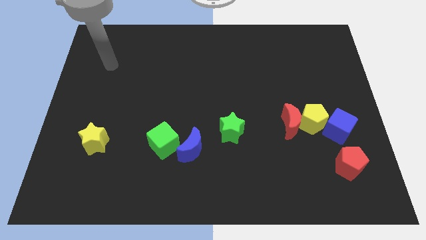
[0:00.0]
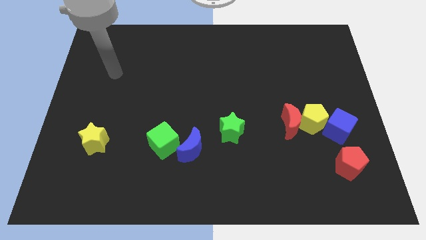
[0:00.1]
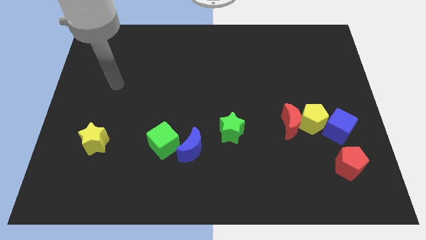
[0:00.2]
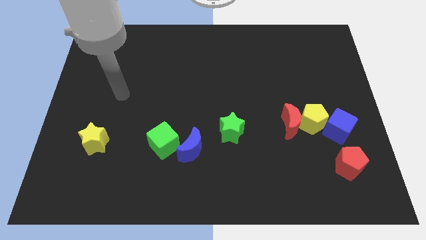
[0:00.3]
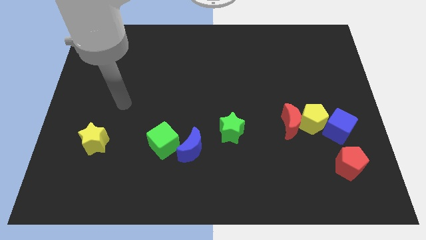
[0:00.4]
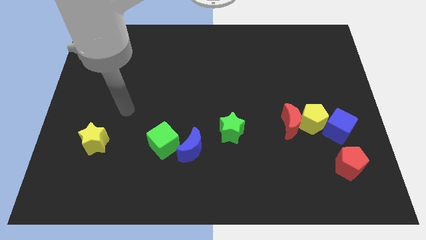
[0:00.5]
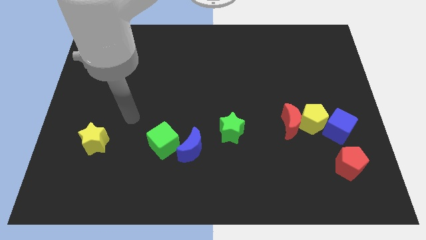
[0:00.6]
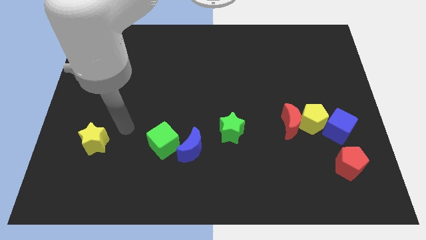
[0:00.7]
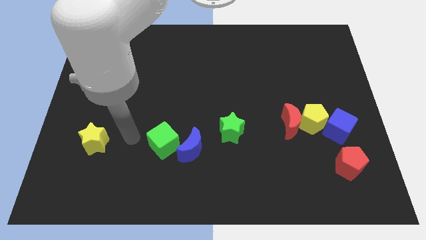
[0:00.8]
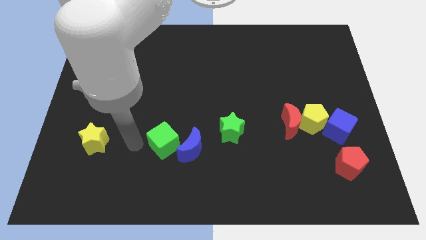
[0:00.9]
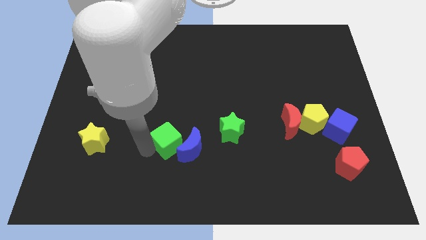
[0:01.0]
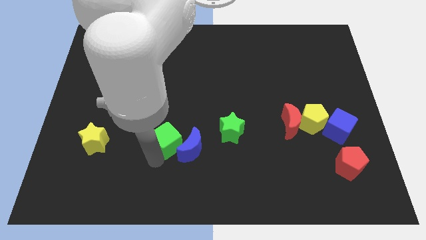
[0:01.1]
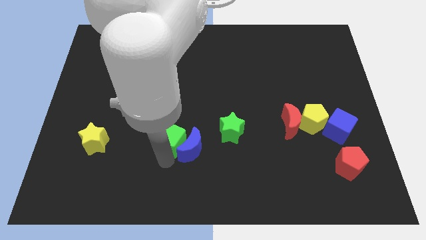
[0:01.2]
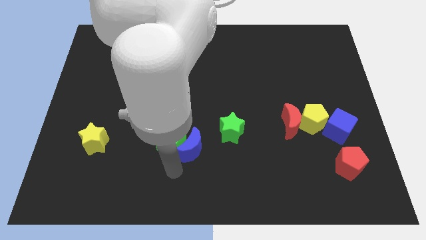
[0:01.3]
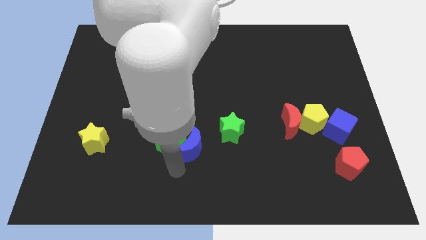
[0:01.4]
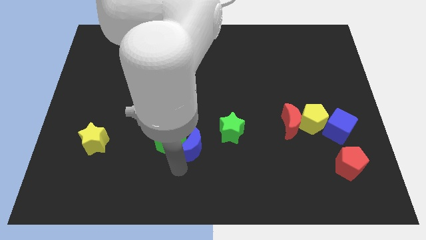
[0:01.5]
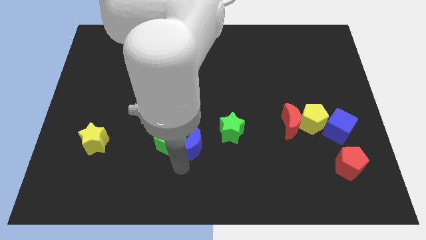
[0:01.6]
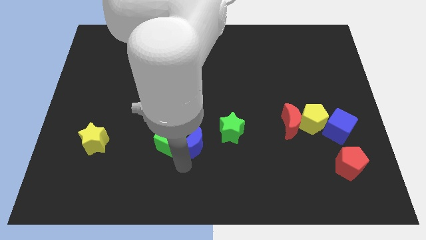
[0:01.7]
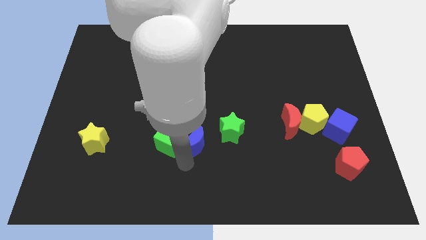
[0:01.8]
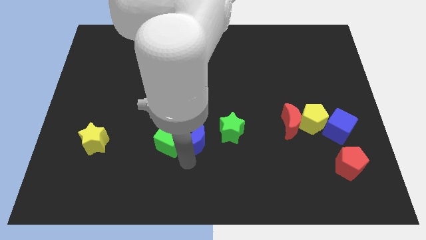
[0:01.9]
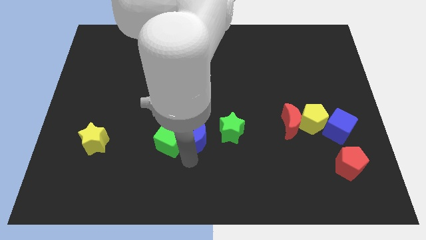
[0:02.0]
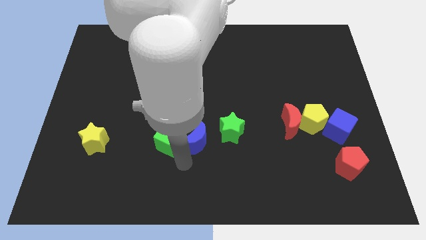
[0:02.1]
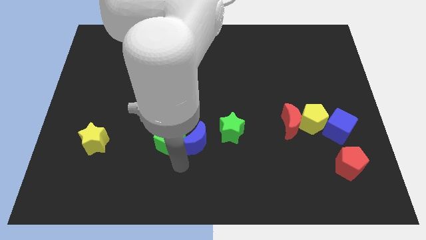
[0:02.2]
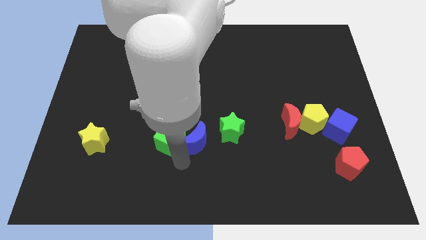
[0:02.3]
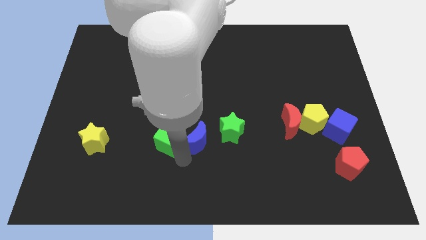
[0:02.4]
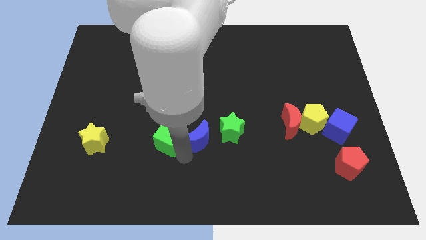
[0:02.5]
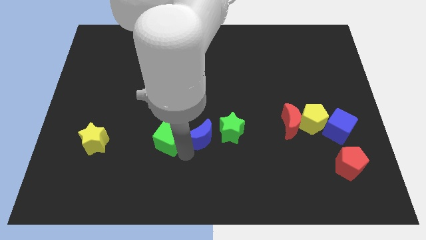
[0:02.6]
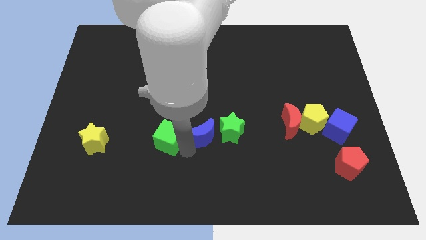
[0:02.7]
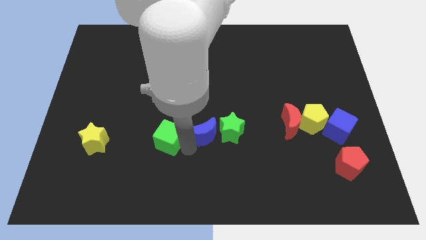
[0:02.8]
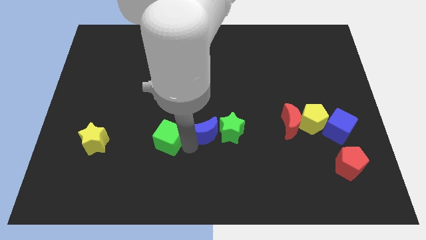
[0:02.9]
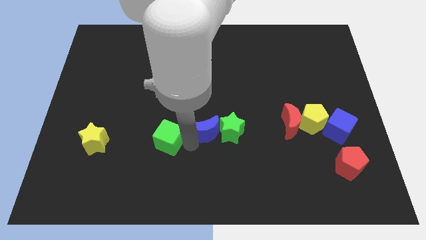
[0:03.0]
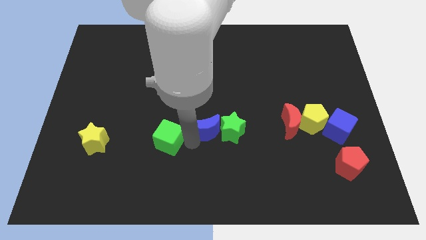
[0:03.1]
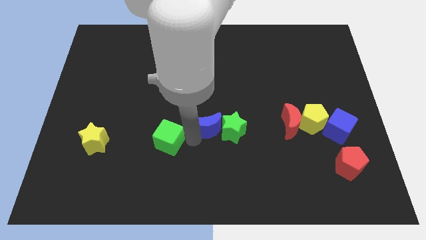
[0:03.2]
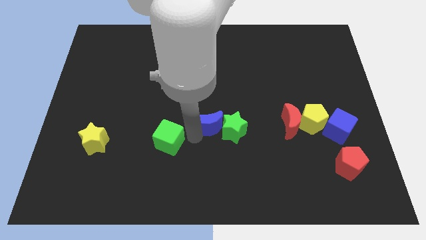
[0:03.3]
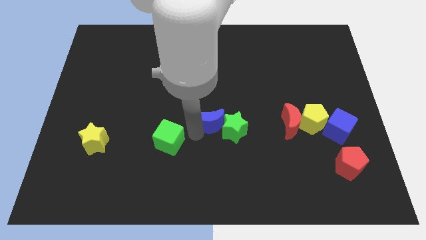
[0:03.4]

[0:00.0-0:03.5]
slide the blue moon a little bit upwards and right diagonally

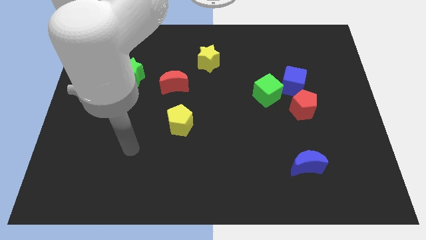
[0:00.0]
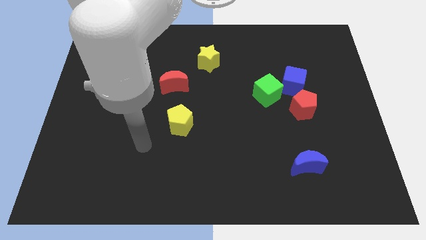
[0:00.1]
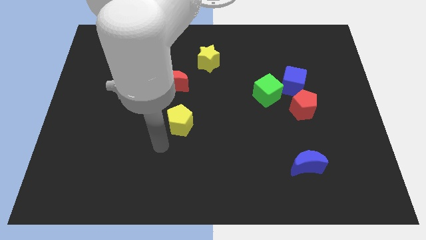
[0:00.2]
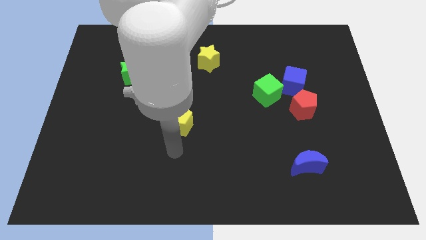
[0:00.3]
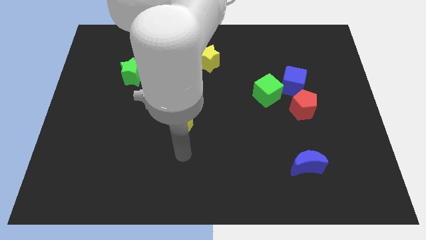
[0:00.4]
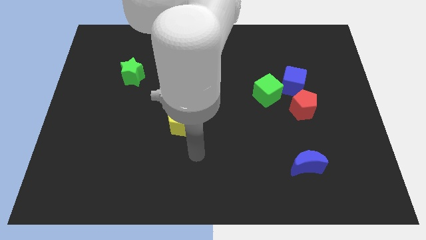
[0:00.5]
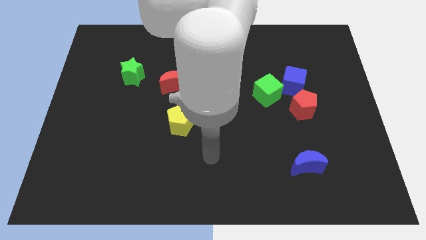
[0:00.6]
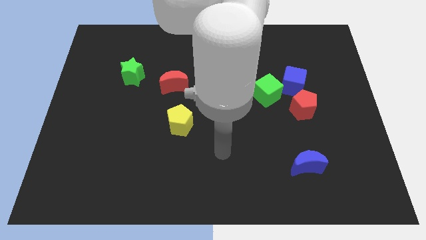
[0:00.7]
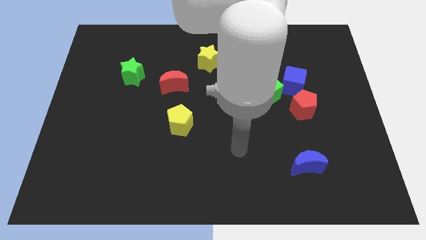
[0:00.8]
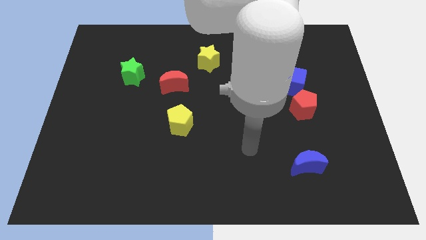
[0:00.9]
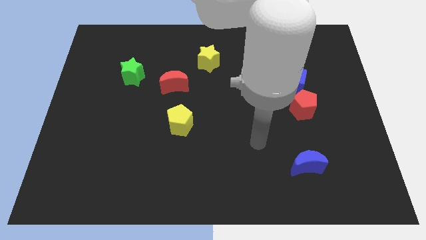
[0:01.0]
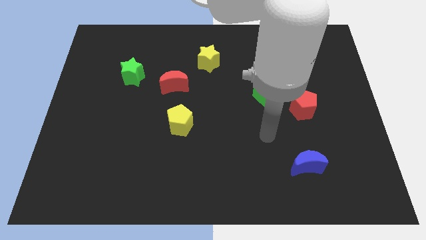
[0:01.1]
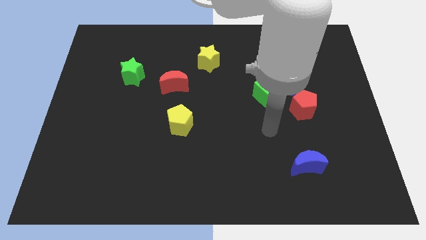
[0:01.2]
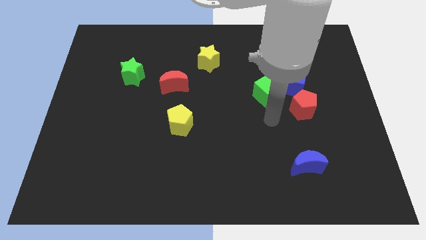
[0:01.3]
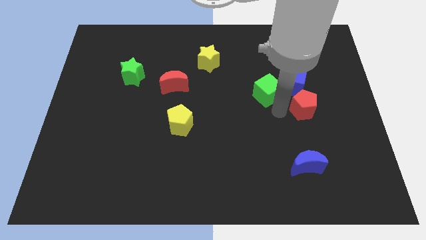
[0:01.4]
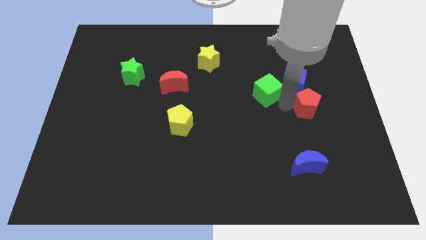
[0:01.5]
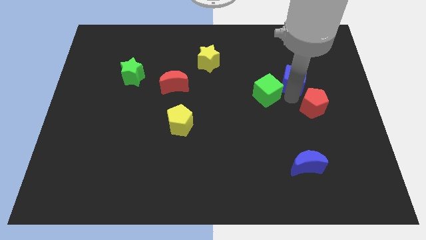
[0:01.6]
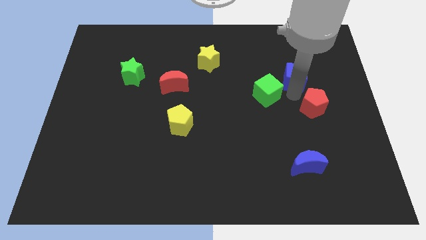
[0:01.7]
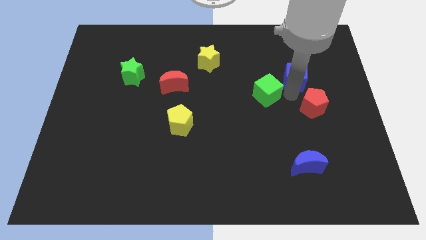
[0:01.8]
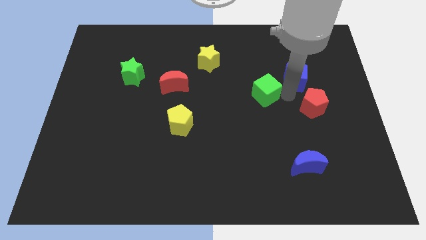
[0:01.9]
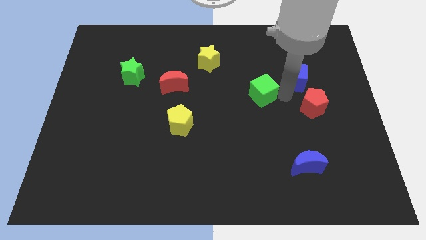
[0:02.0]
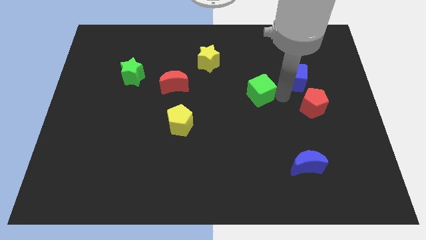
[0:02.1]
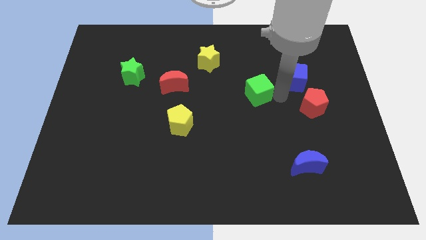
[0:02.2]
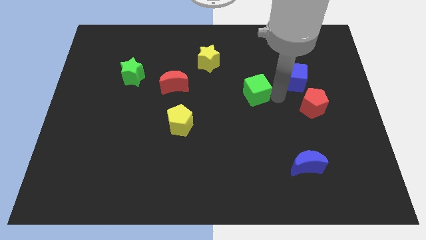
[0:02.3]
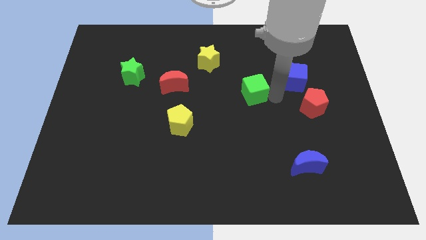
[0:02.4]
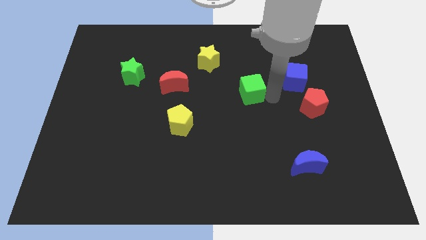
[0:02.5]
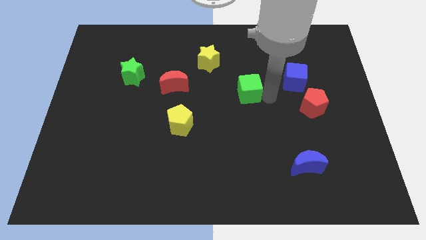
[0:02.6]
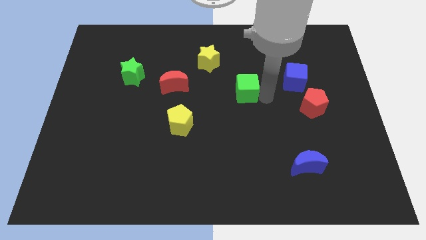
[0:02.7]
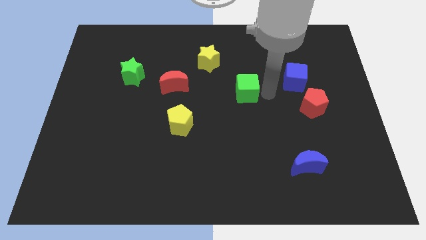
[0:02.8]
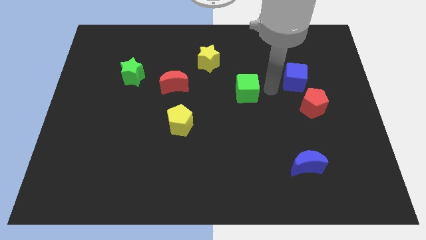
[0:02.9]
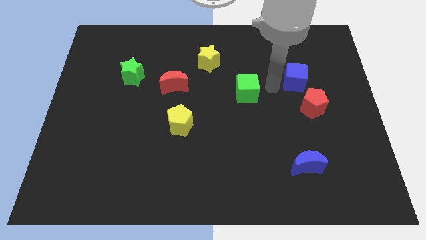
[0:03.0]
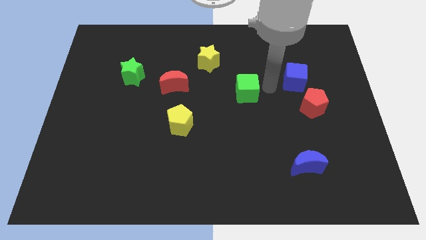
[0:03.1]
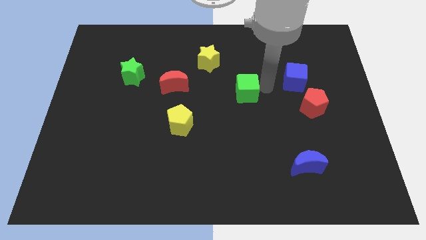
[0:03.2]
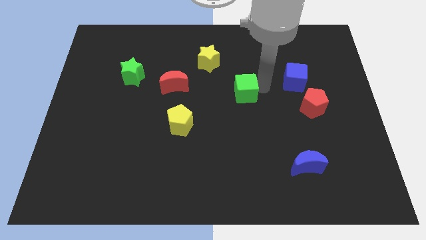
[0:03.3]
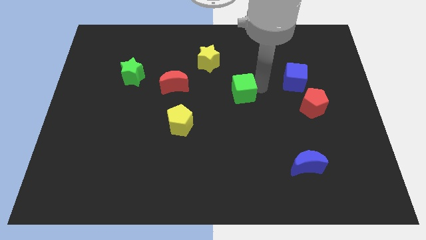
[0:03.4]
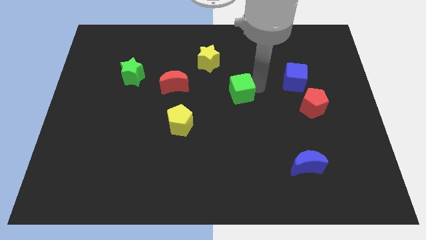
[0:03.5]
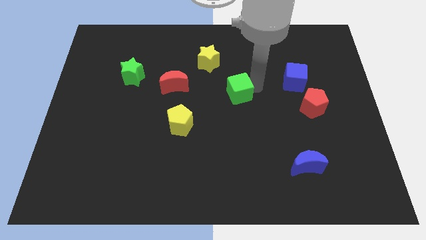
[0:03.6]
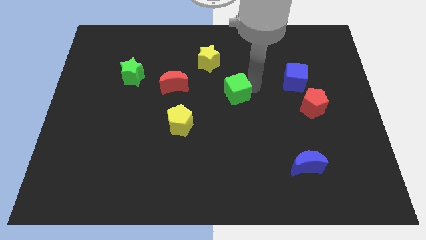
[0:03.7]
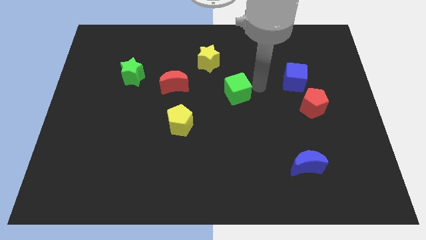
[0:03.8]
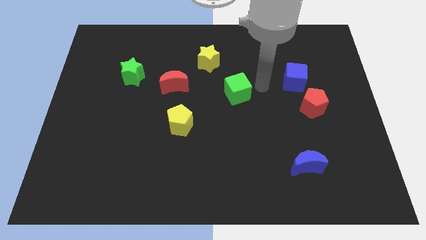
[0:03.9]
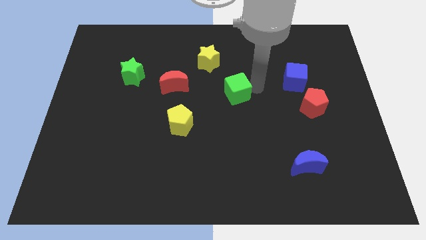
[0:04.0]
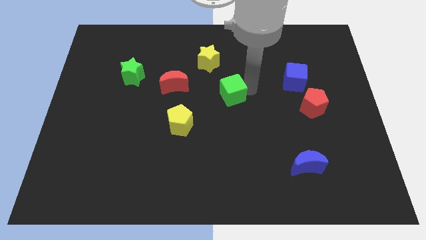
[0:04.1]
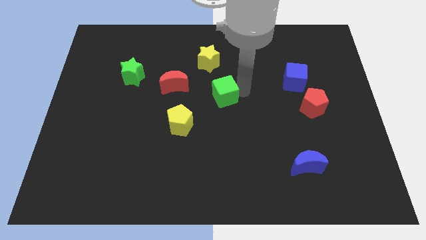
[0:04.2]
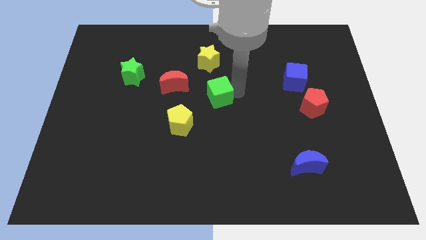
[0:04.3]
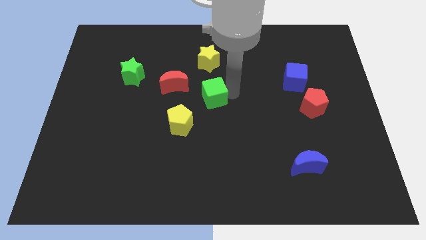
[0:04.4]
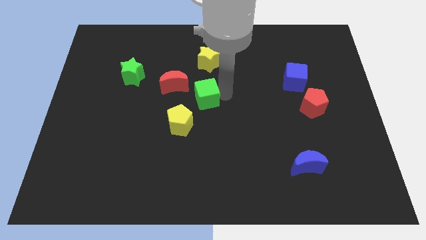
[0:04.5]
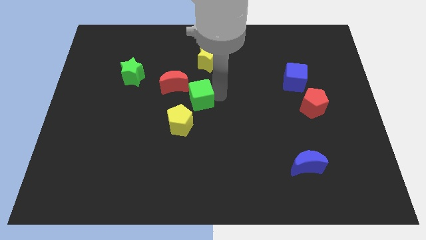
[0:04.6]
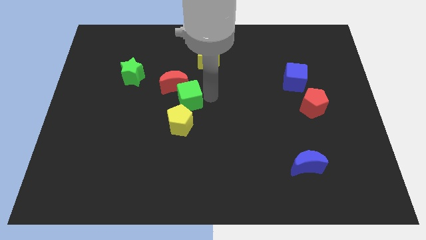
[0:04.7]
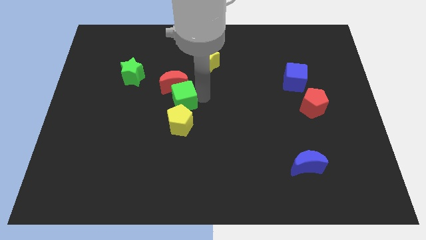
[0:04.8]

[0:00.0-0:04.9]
push the green cube to the left

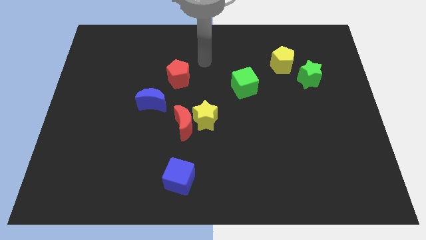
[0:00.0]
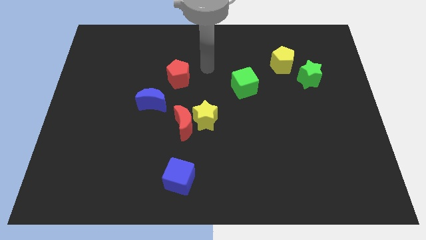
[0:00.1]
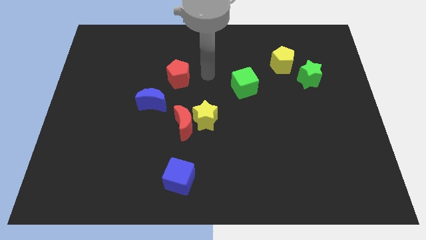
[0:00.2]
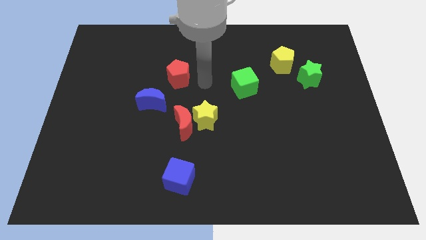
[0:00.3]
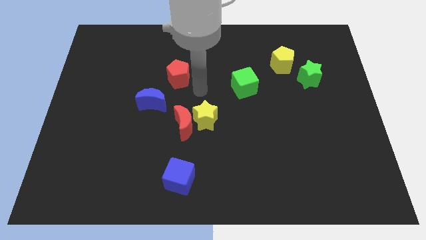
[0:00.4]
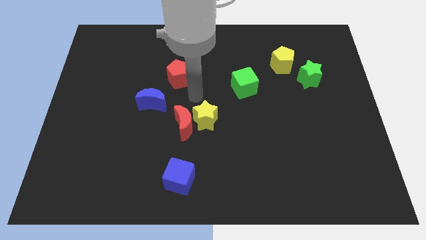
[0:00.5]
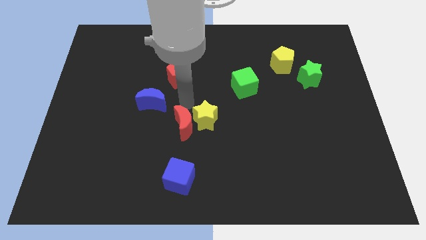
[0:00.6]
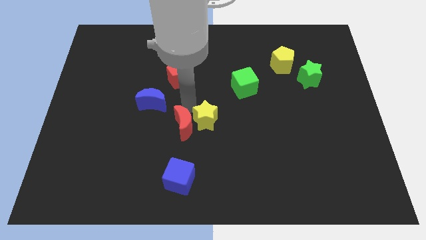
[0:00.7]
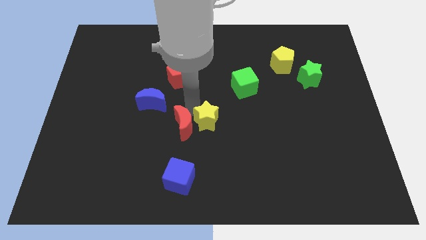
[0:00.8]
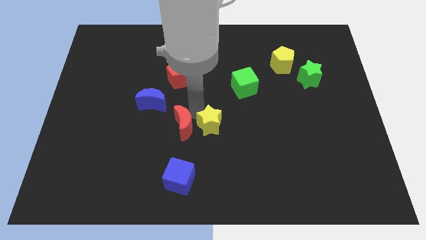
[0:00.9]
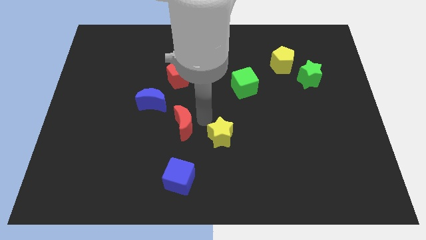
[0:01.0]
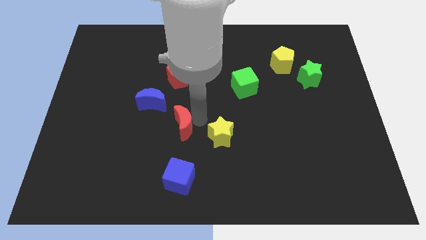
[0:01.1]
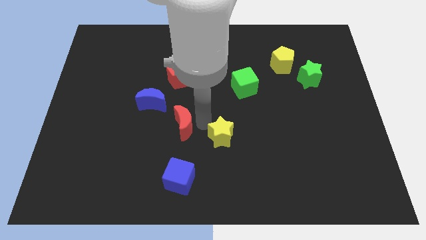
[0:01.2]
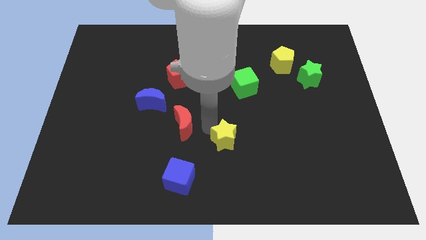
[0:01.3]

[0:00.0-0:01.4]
push the yellow star a little down and right
